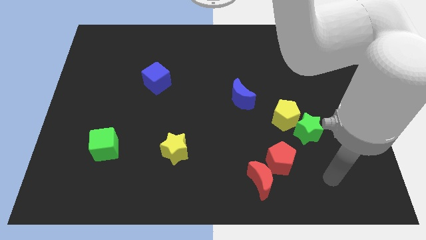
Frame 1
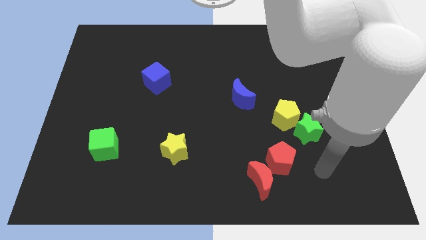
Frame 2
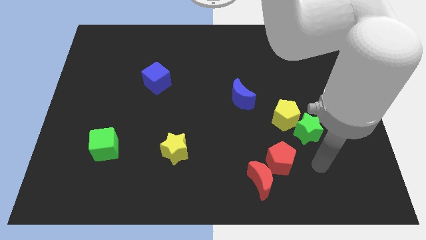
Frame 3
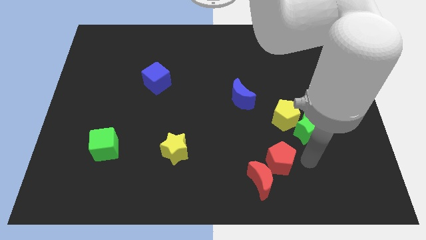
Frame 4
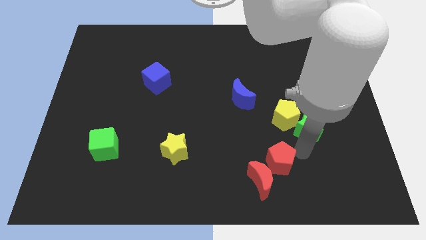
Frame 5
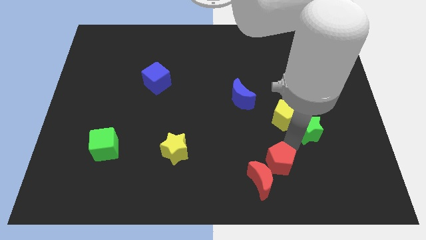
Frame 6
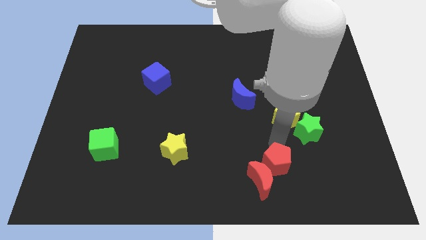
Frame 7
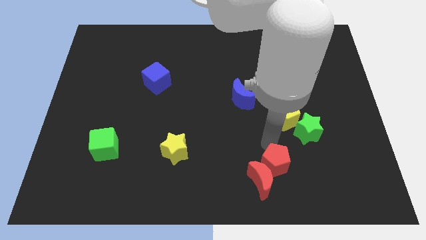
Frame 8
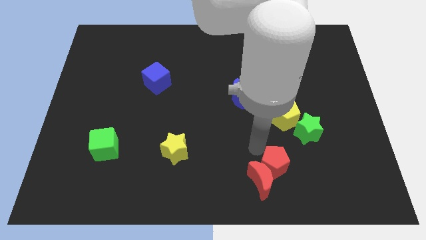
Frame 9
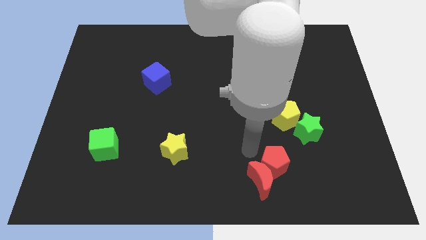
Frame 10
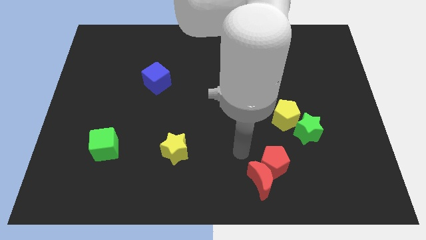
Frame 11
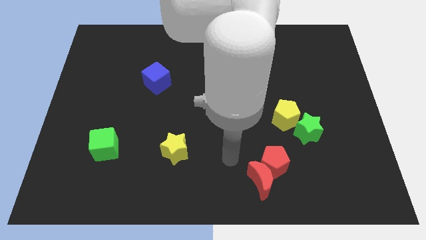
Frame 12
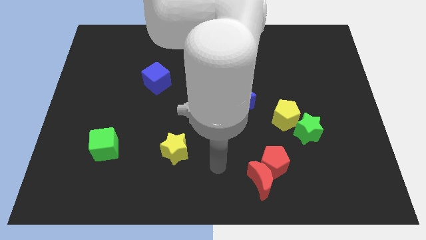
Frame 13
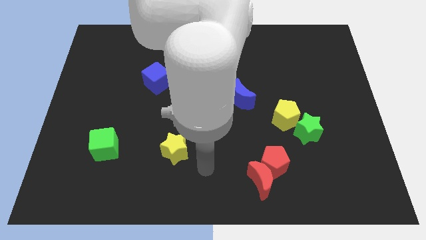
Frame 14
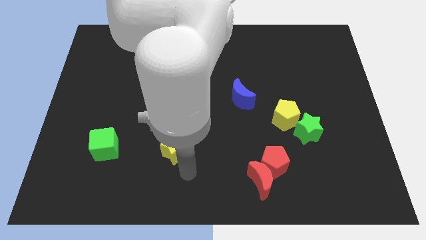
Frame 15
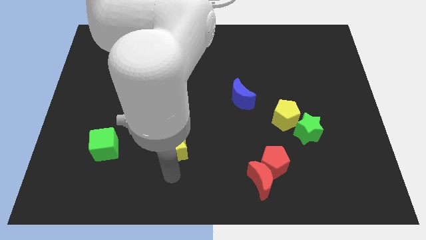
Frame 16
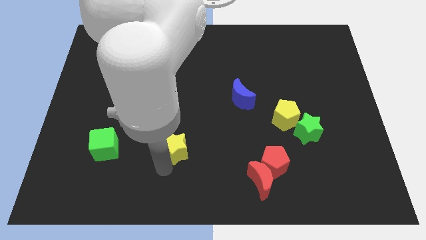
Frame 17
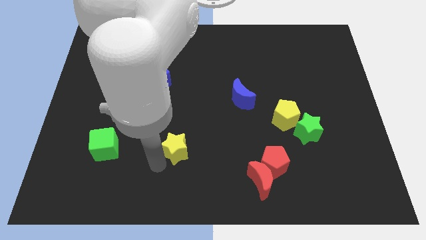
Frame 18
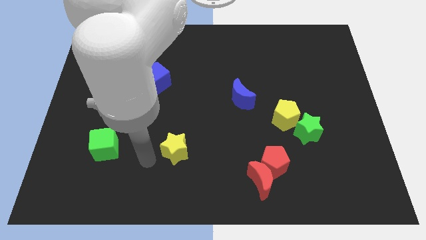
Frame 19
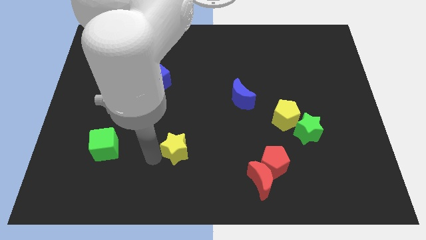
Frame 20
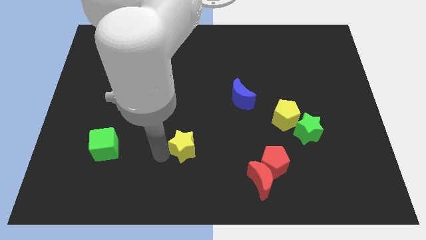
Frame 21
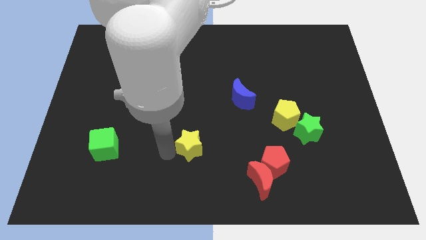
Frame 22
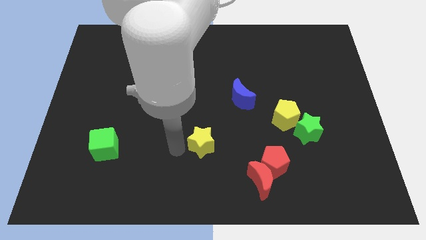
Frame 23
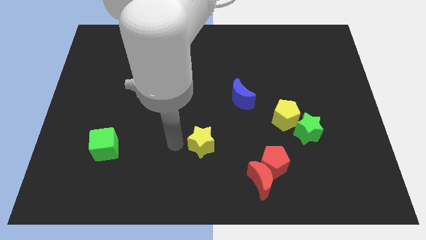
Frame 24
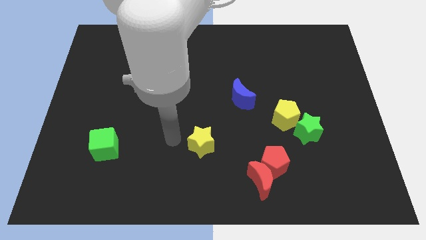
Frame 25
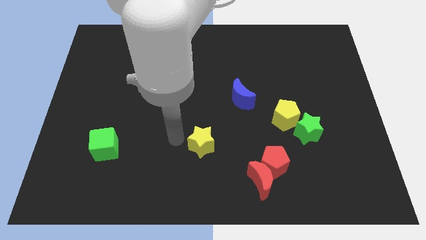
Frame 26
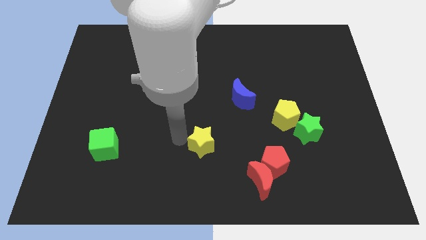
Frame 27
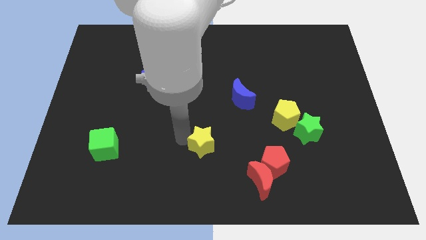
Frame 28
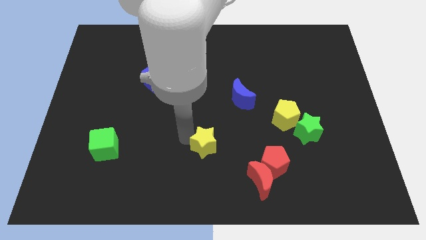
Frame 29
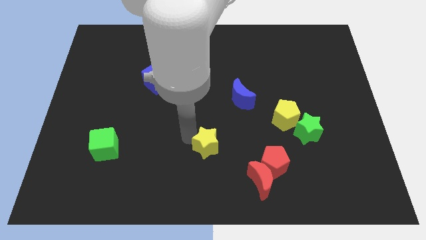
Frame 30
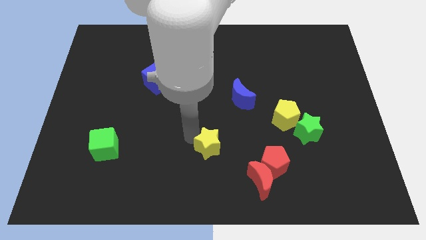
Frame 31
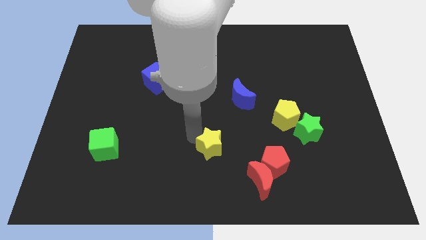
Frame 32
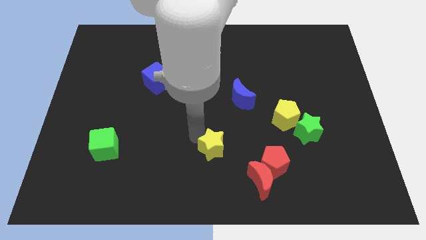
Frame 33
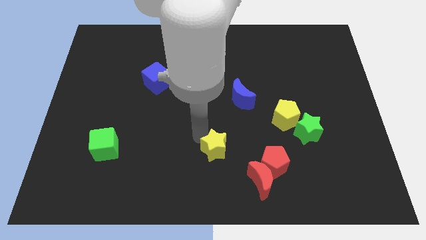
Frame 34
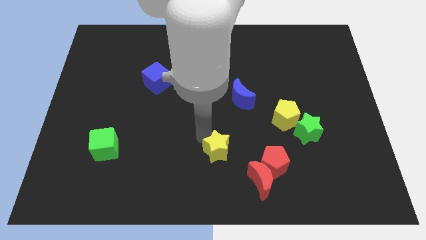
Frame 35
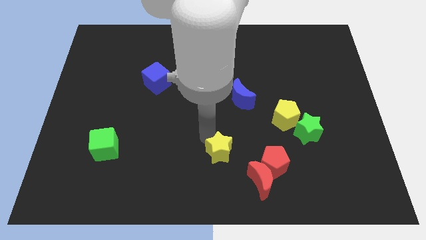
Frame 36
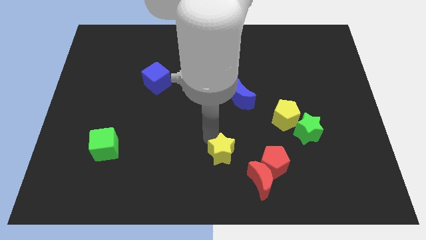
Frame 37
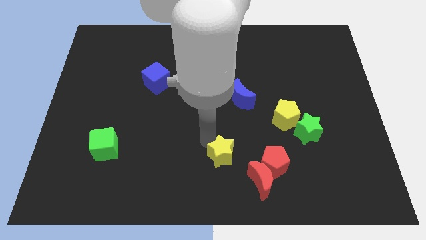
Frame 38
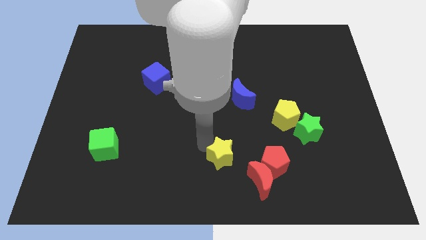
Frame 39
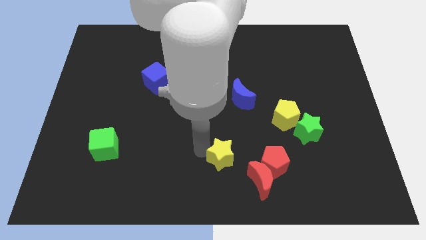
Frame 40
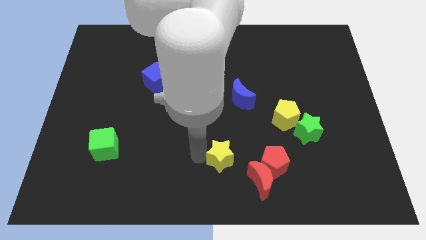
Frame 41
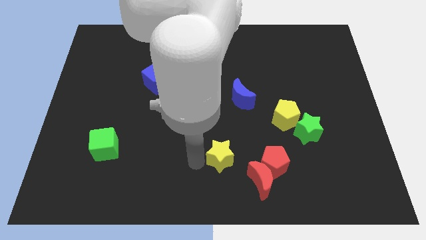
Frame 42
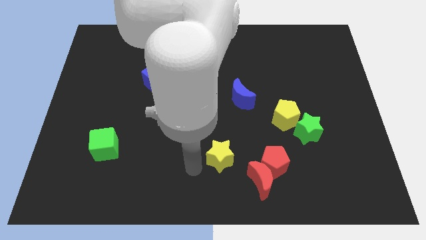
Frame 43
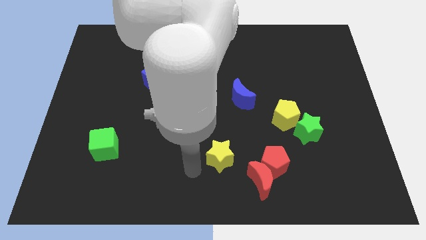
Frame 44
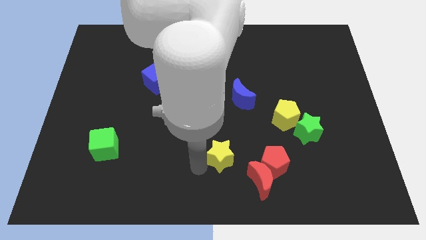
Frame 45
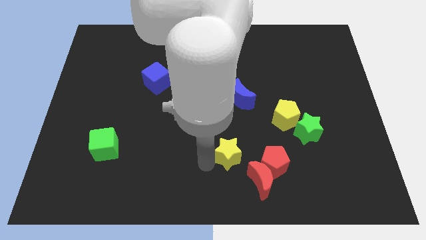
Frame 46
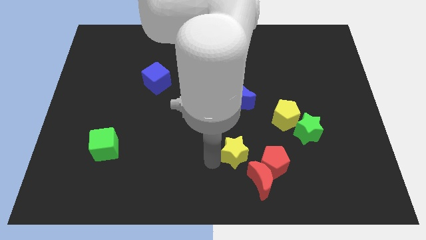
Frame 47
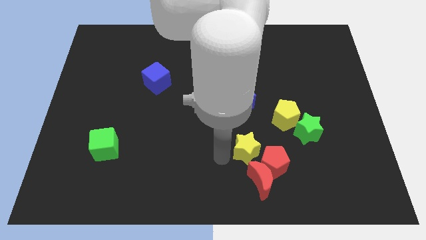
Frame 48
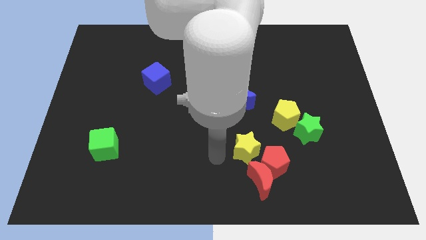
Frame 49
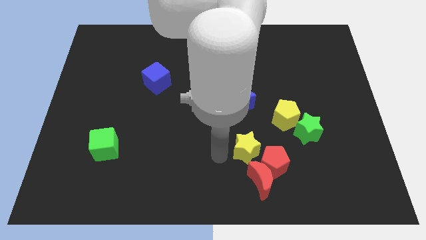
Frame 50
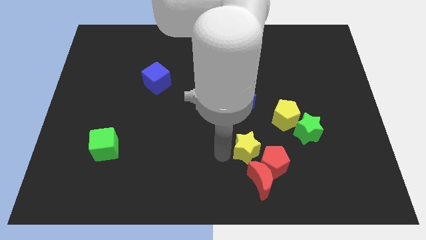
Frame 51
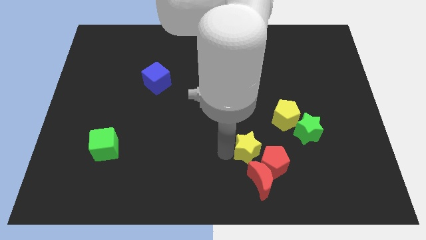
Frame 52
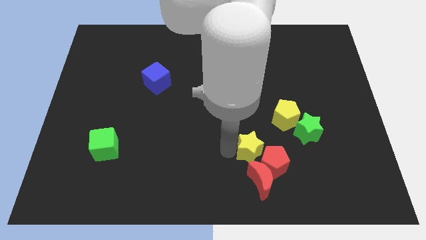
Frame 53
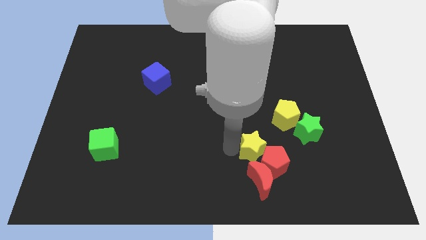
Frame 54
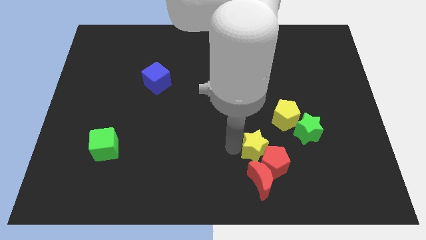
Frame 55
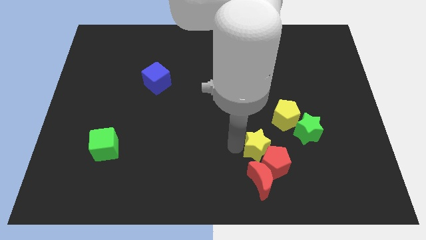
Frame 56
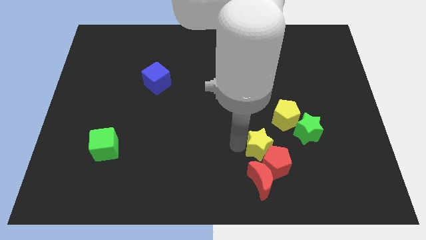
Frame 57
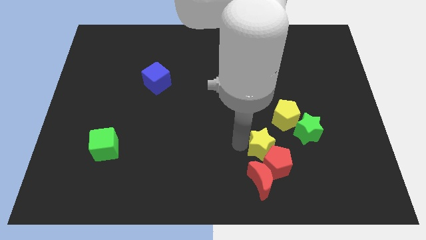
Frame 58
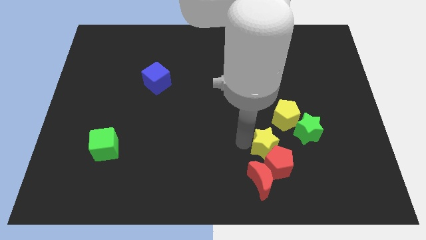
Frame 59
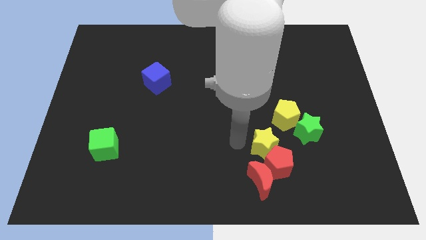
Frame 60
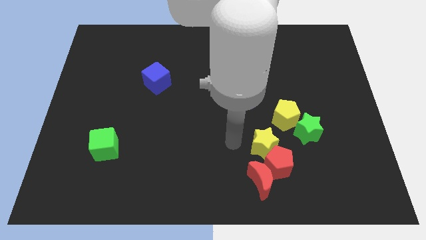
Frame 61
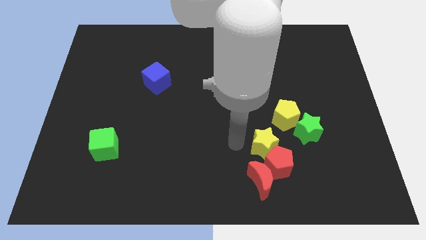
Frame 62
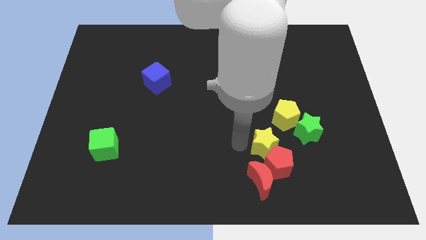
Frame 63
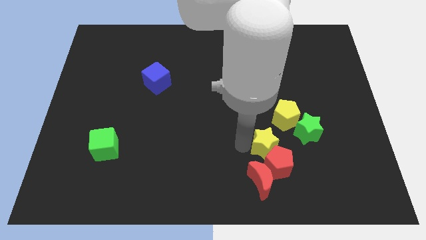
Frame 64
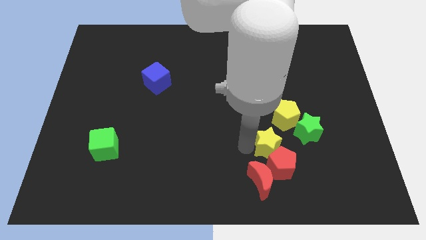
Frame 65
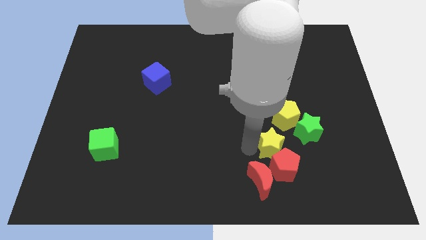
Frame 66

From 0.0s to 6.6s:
push the yellow star to the right

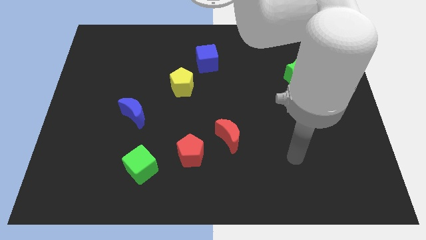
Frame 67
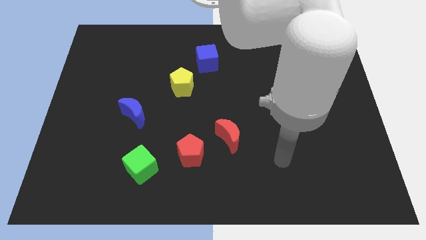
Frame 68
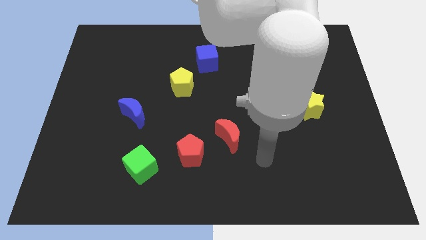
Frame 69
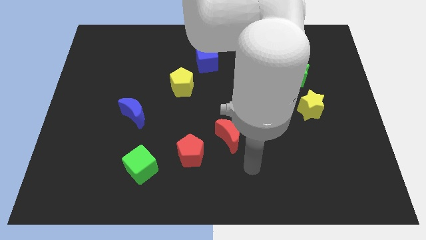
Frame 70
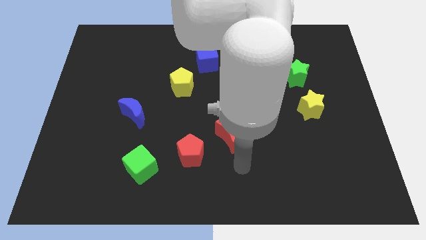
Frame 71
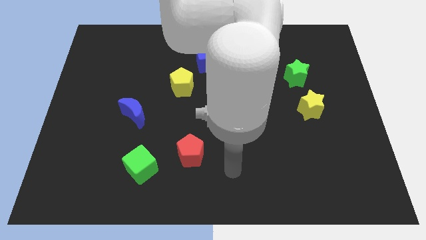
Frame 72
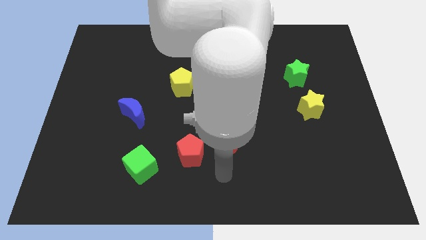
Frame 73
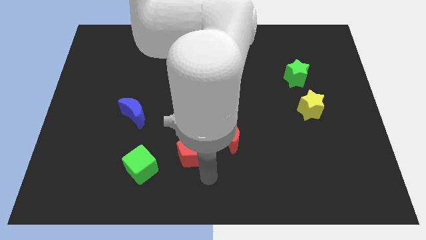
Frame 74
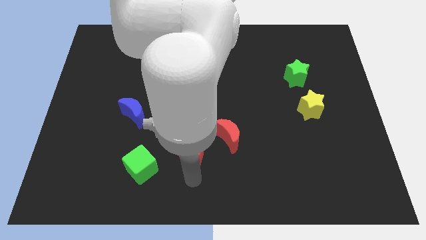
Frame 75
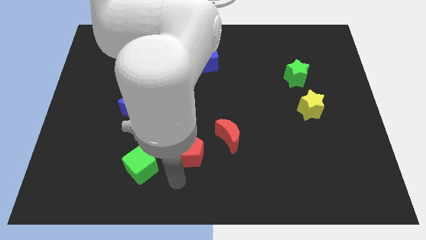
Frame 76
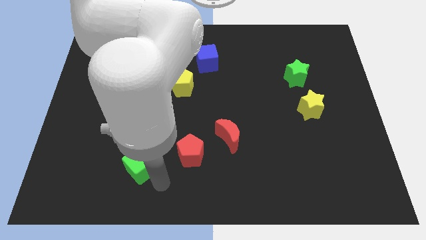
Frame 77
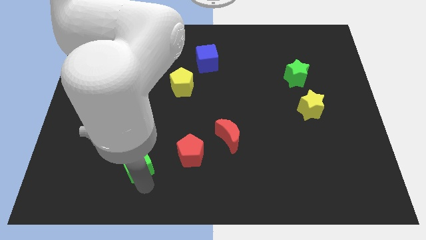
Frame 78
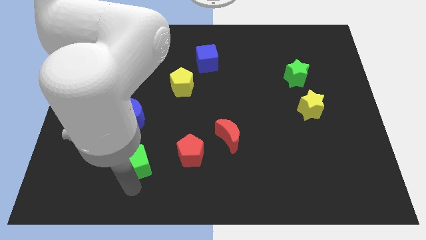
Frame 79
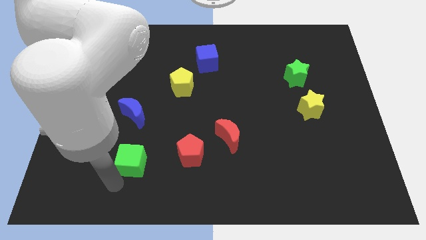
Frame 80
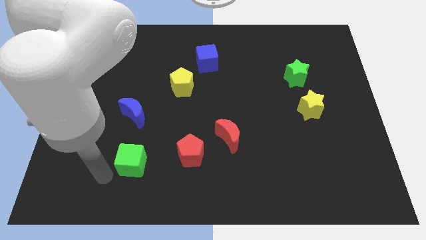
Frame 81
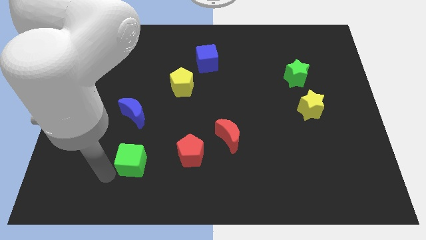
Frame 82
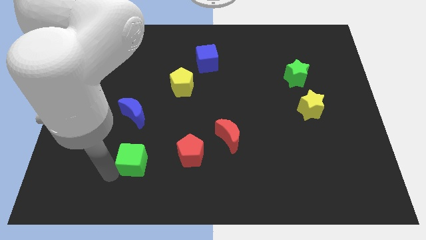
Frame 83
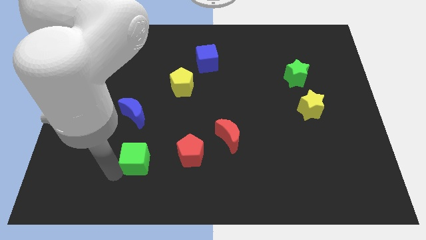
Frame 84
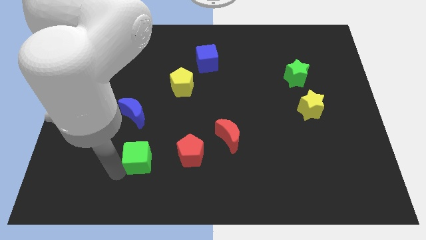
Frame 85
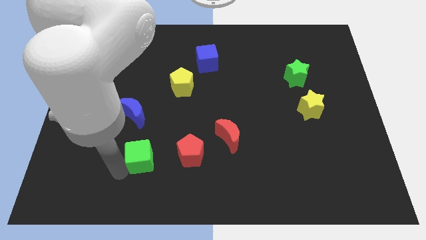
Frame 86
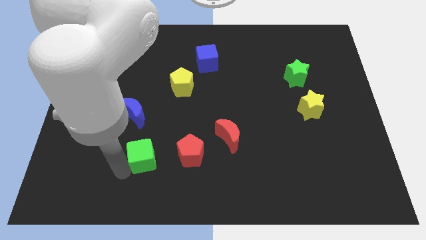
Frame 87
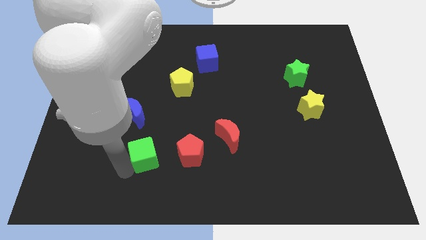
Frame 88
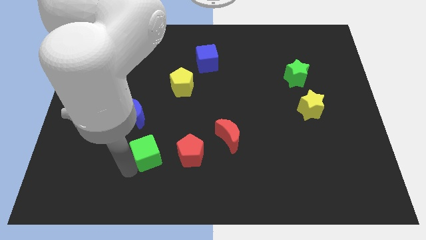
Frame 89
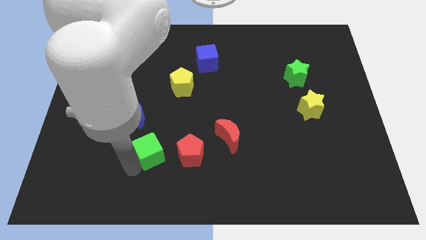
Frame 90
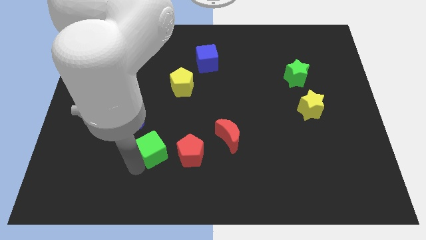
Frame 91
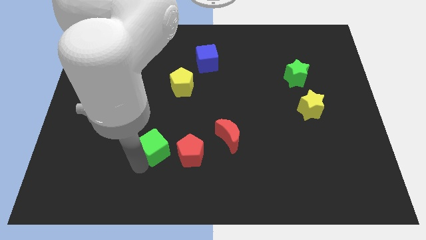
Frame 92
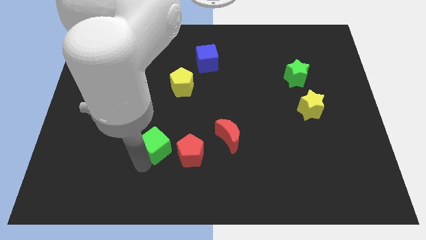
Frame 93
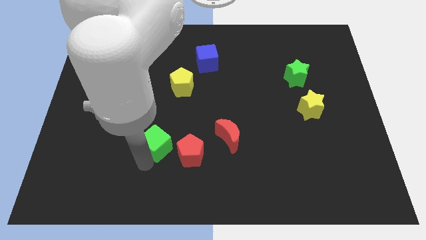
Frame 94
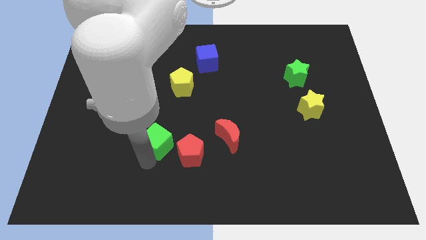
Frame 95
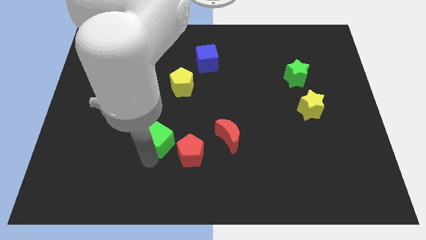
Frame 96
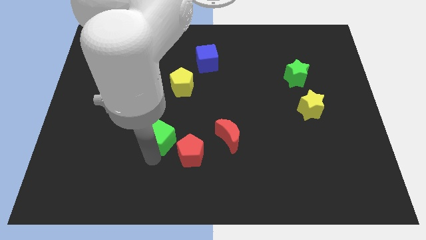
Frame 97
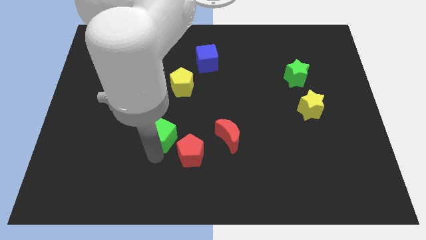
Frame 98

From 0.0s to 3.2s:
move the green cube a little bit upwards
